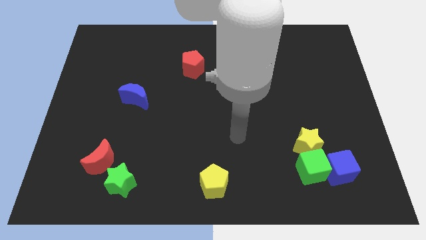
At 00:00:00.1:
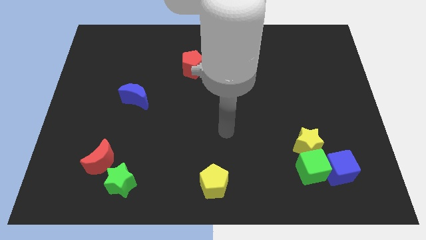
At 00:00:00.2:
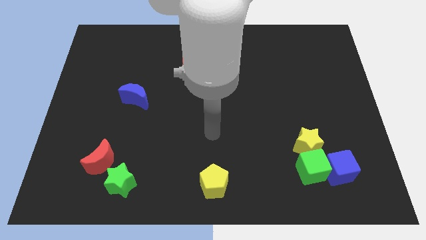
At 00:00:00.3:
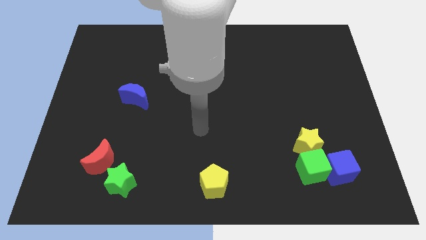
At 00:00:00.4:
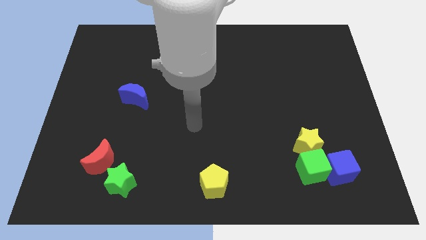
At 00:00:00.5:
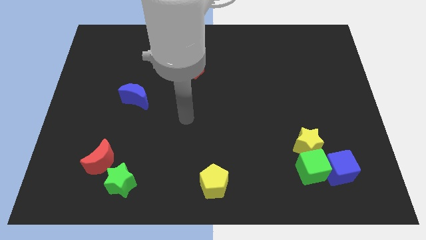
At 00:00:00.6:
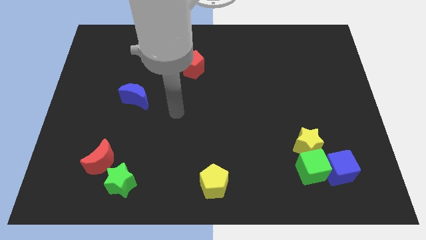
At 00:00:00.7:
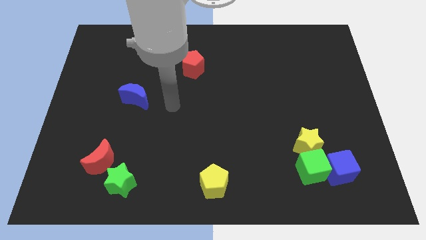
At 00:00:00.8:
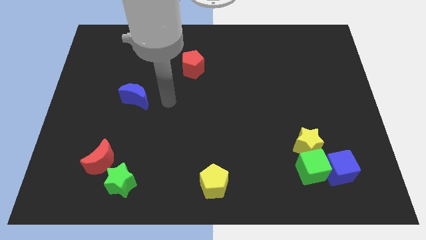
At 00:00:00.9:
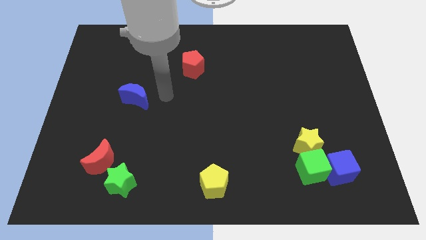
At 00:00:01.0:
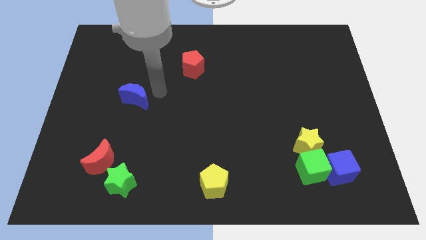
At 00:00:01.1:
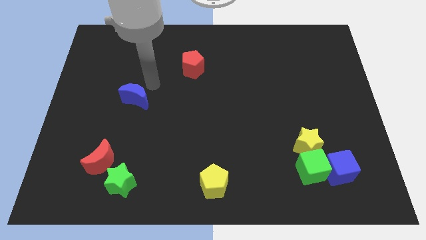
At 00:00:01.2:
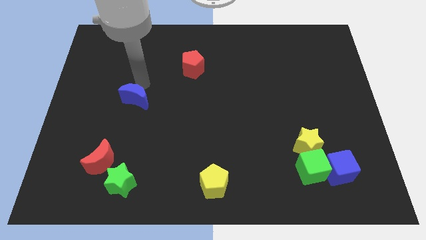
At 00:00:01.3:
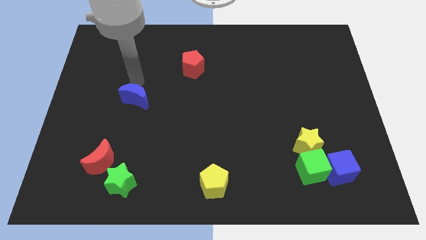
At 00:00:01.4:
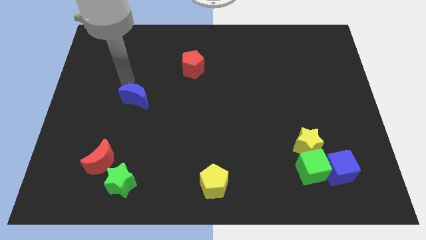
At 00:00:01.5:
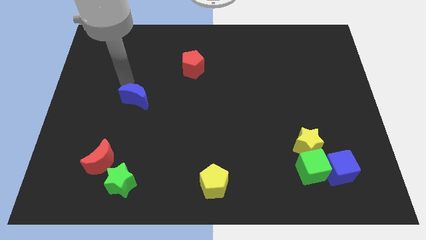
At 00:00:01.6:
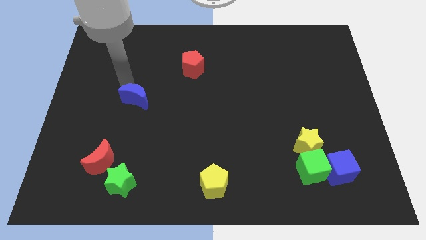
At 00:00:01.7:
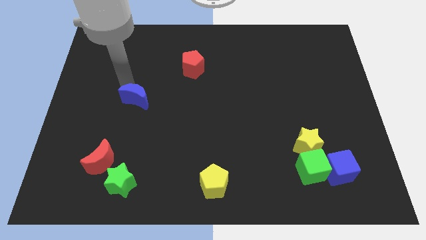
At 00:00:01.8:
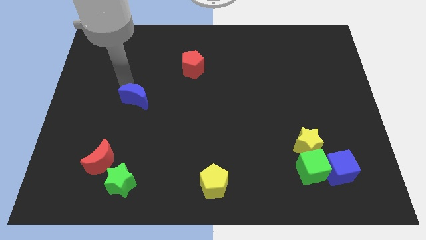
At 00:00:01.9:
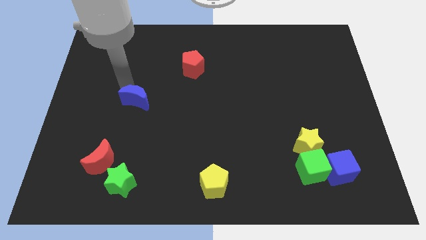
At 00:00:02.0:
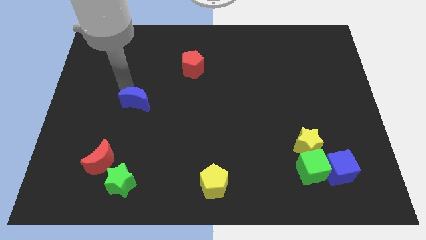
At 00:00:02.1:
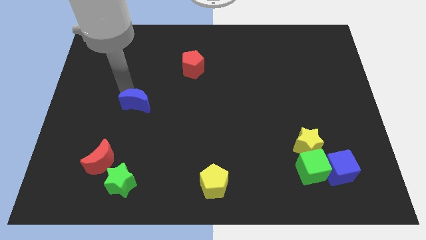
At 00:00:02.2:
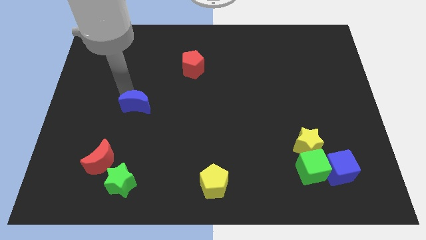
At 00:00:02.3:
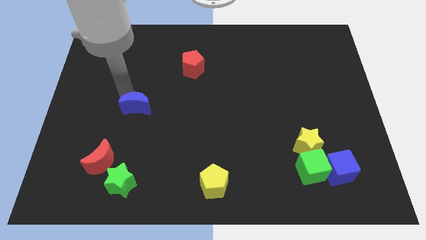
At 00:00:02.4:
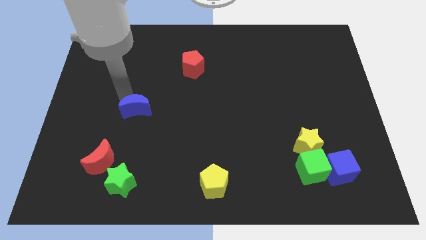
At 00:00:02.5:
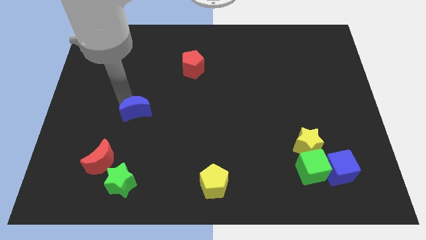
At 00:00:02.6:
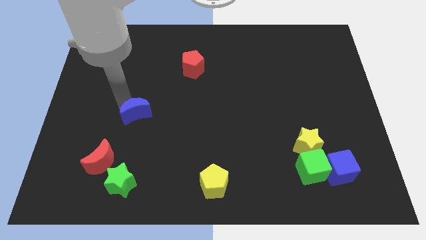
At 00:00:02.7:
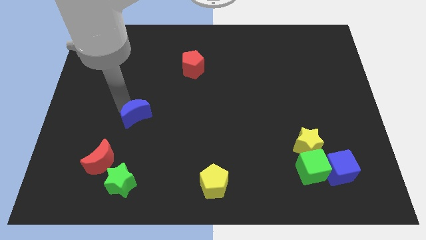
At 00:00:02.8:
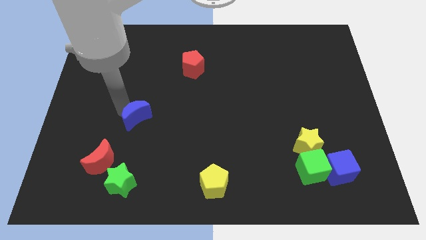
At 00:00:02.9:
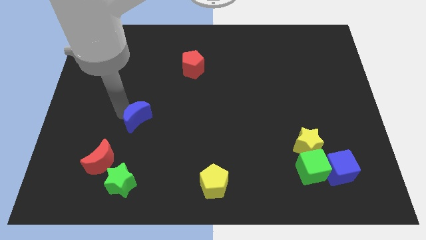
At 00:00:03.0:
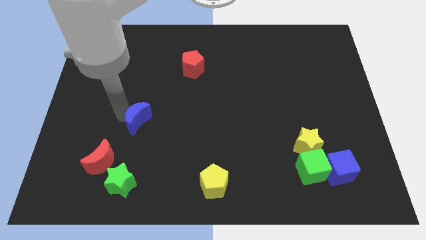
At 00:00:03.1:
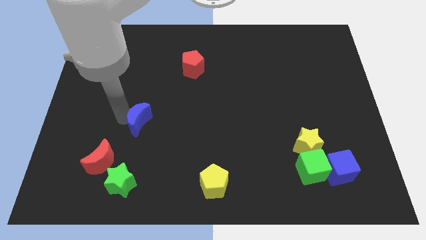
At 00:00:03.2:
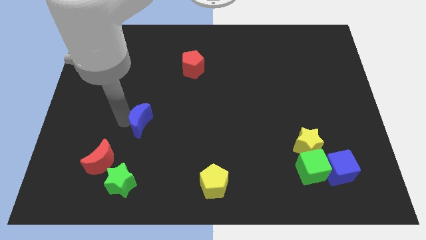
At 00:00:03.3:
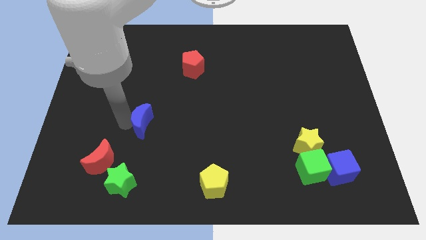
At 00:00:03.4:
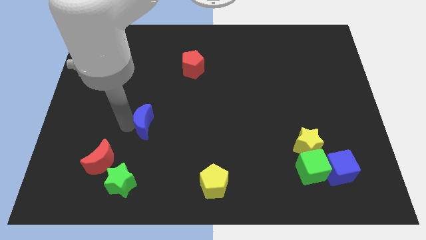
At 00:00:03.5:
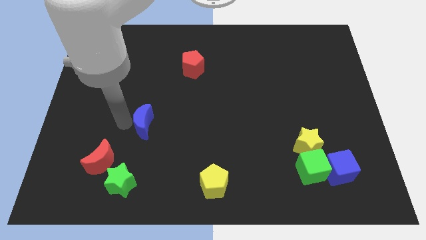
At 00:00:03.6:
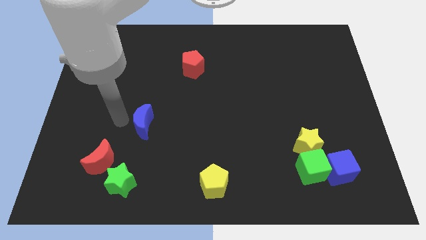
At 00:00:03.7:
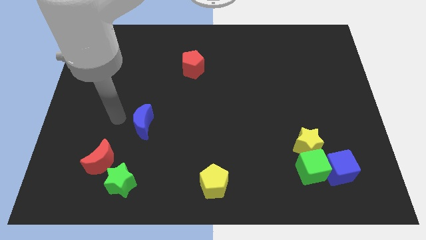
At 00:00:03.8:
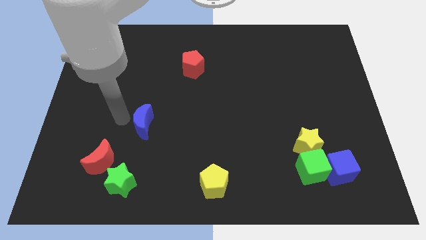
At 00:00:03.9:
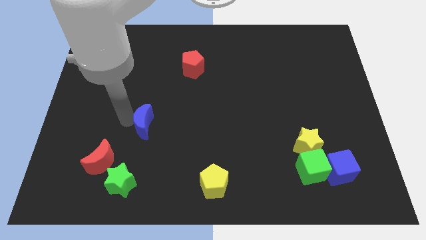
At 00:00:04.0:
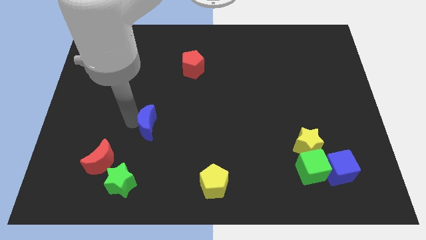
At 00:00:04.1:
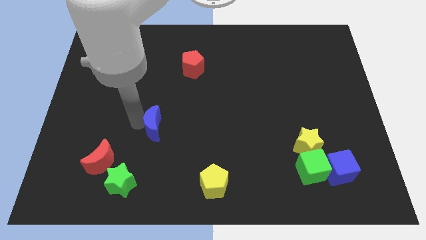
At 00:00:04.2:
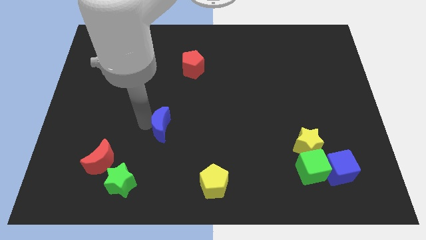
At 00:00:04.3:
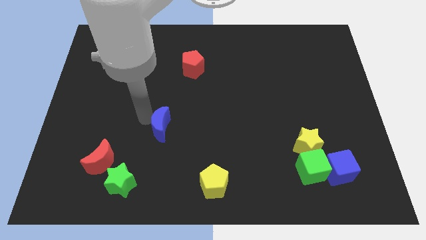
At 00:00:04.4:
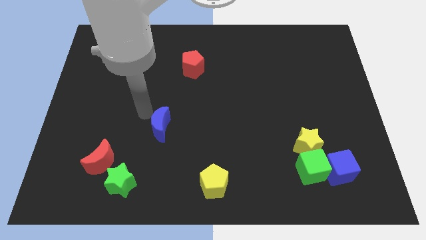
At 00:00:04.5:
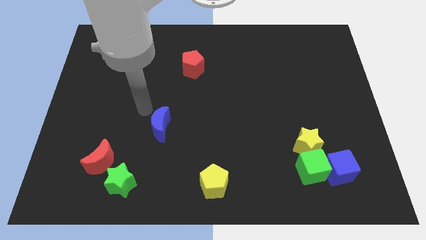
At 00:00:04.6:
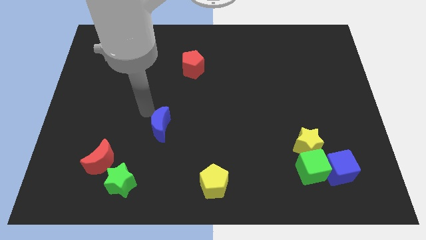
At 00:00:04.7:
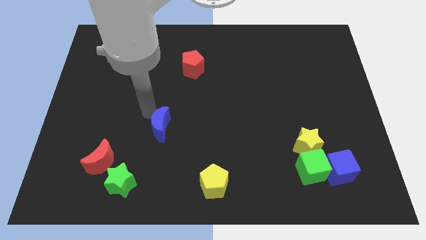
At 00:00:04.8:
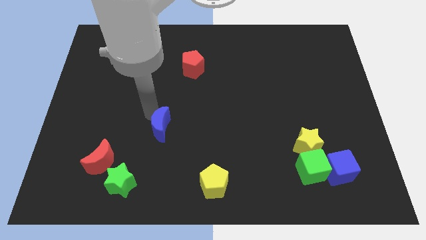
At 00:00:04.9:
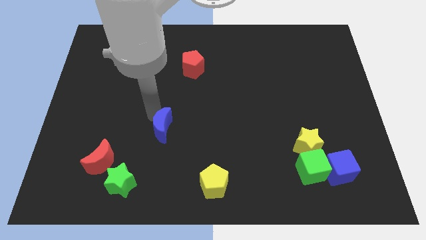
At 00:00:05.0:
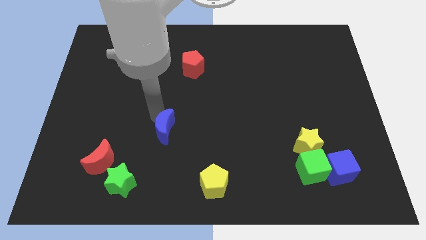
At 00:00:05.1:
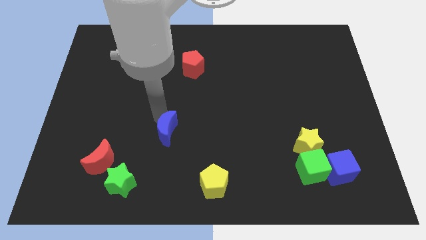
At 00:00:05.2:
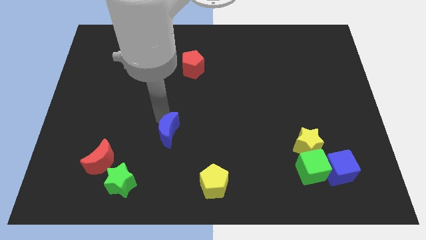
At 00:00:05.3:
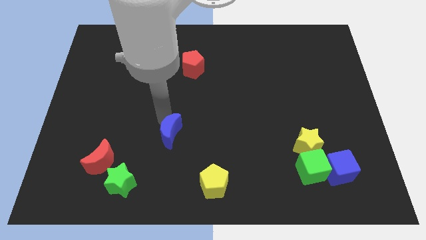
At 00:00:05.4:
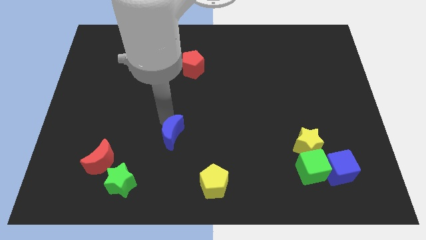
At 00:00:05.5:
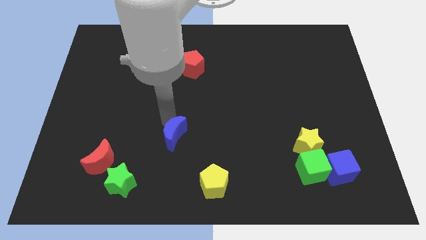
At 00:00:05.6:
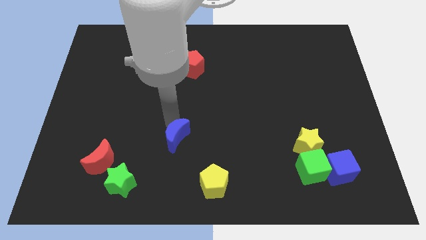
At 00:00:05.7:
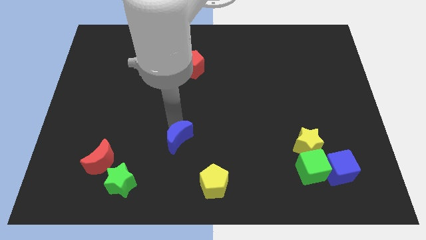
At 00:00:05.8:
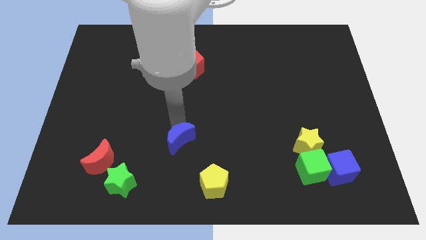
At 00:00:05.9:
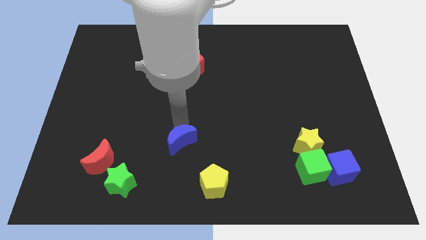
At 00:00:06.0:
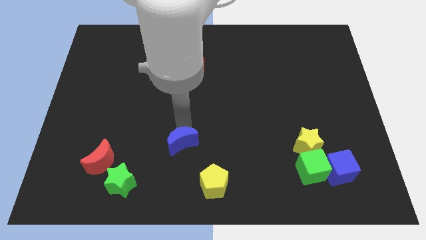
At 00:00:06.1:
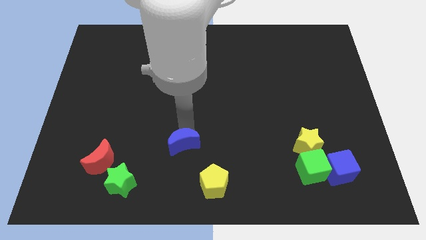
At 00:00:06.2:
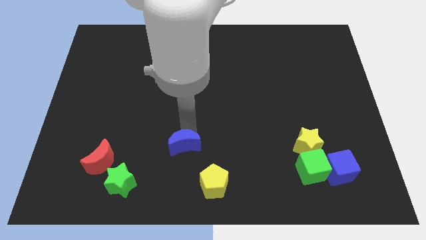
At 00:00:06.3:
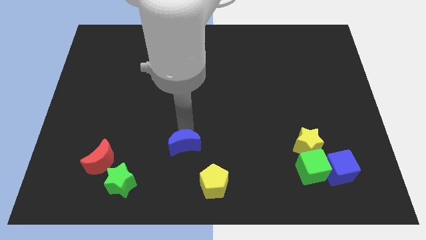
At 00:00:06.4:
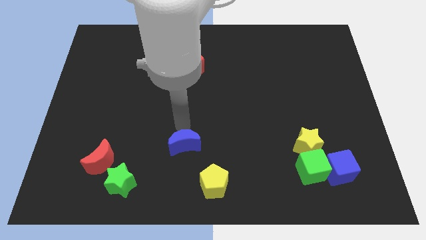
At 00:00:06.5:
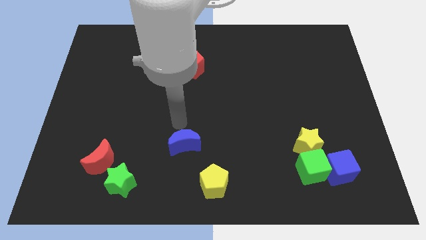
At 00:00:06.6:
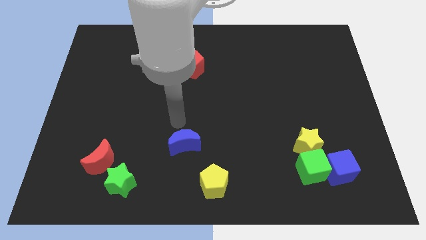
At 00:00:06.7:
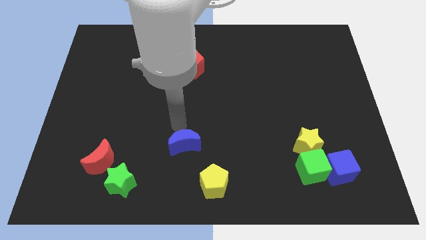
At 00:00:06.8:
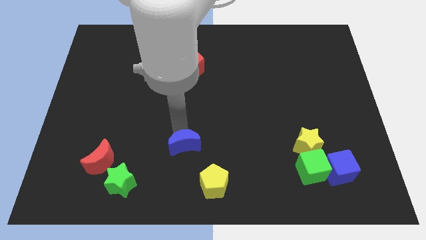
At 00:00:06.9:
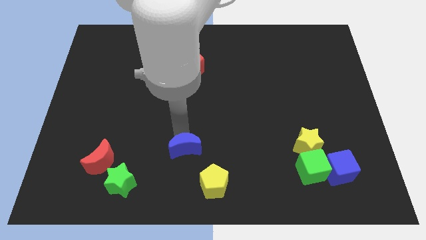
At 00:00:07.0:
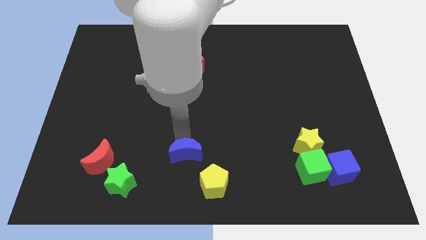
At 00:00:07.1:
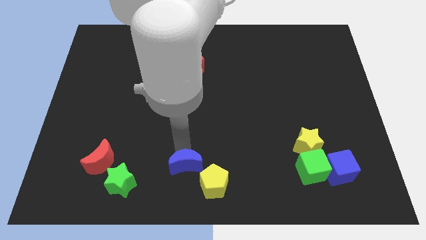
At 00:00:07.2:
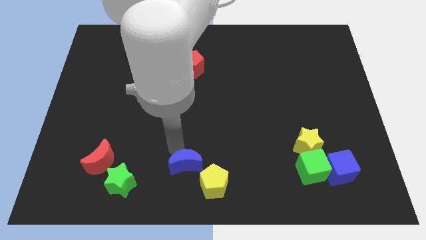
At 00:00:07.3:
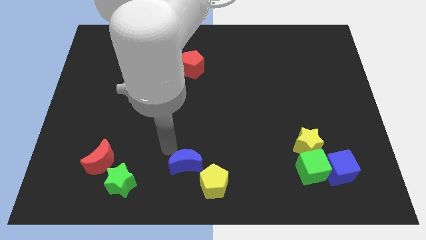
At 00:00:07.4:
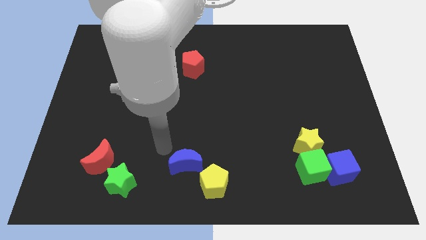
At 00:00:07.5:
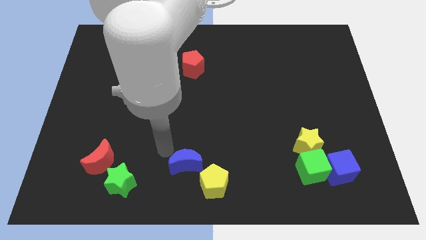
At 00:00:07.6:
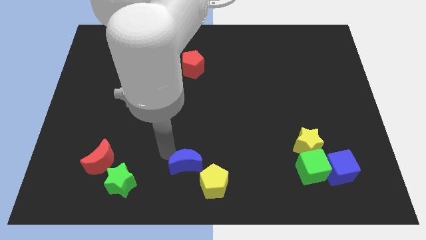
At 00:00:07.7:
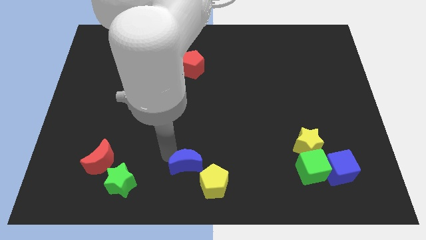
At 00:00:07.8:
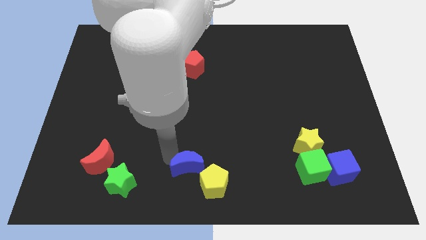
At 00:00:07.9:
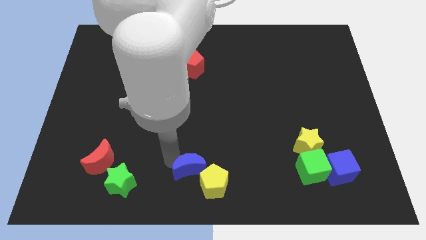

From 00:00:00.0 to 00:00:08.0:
put the blue moon close to the yellow pentagon
